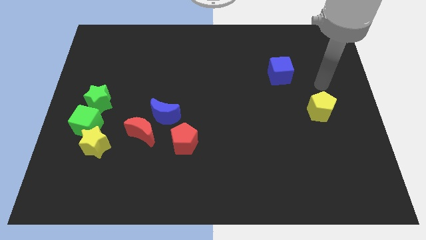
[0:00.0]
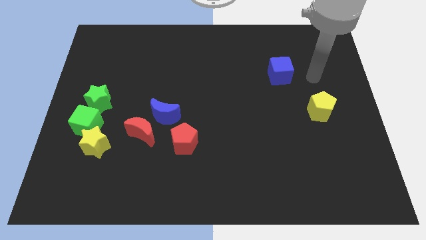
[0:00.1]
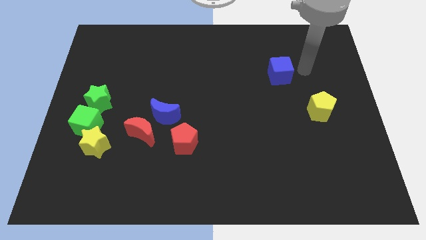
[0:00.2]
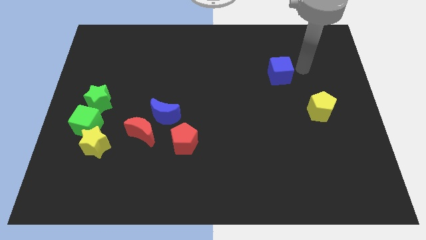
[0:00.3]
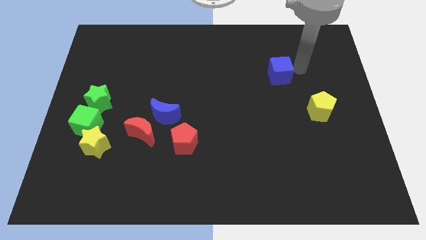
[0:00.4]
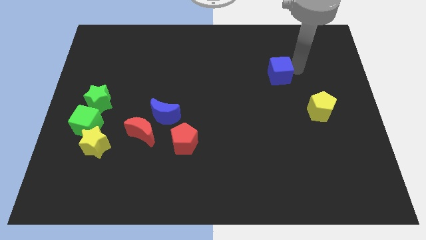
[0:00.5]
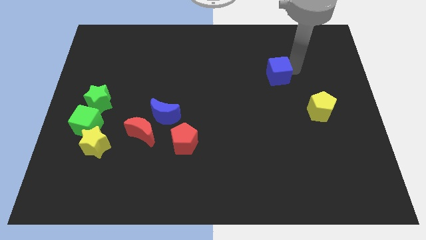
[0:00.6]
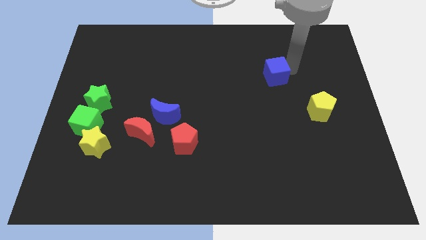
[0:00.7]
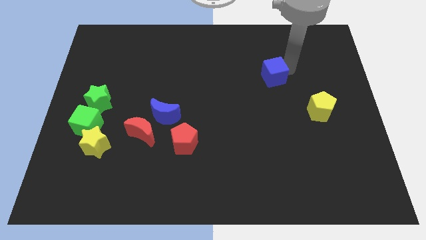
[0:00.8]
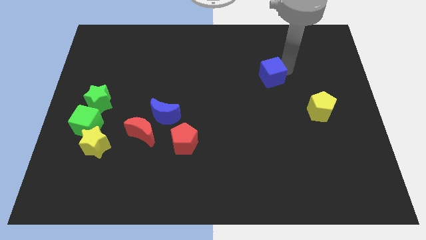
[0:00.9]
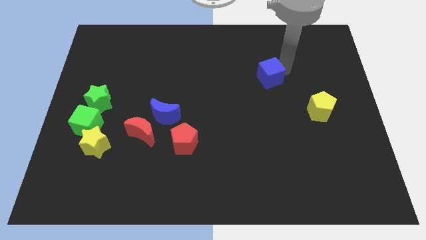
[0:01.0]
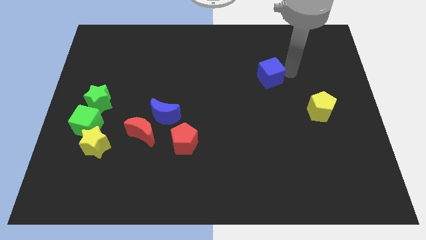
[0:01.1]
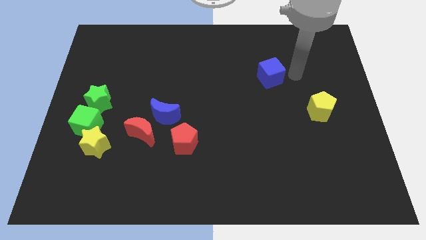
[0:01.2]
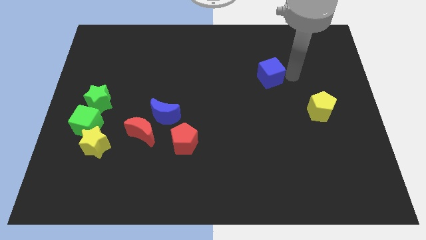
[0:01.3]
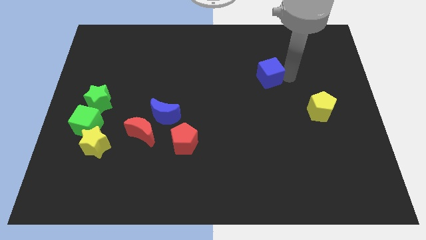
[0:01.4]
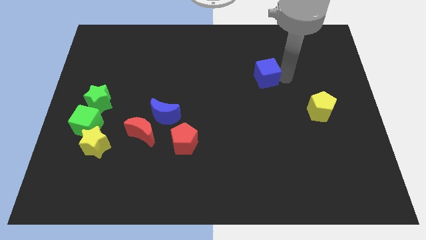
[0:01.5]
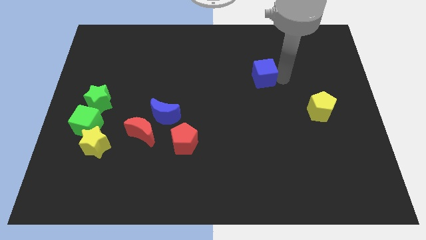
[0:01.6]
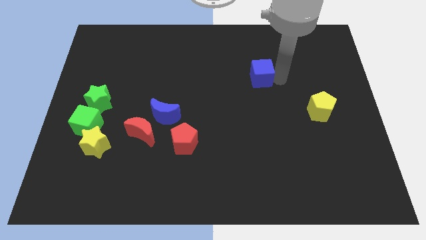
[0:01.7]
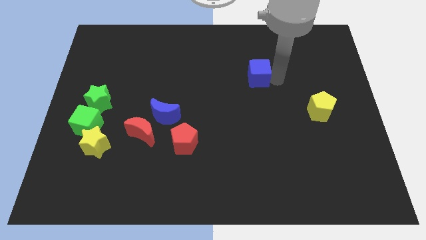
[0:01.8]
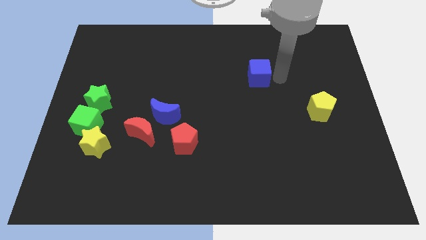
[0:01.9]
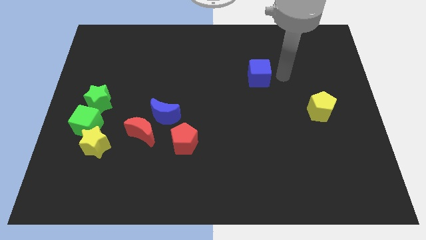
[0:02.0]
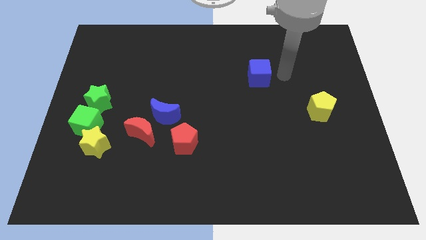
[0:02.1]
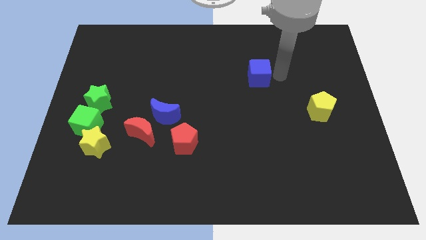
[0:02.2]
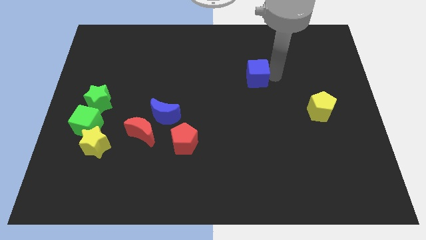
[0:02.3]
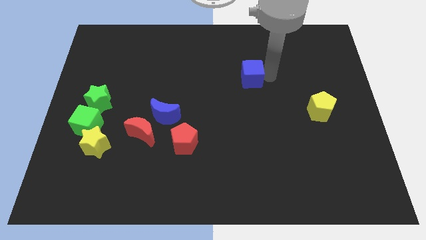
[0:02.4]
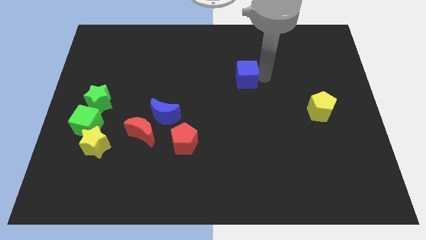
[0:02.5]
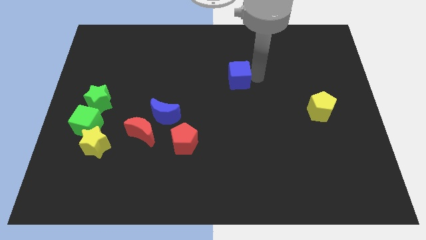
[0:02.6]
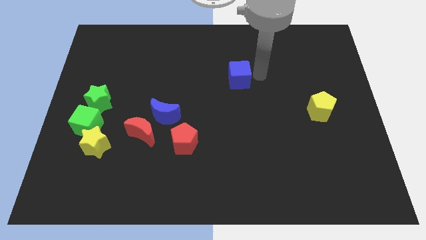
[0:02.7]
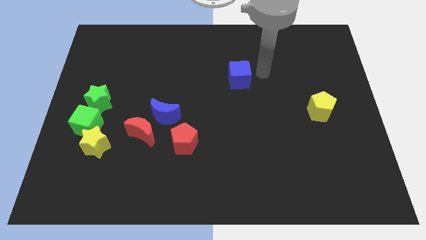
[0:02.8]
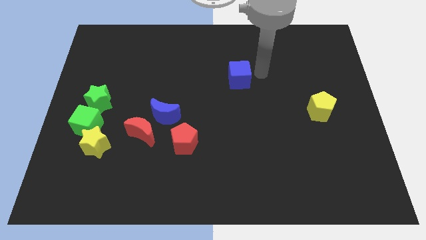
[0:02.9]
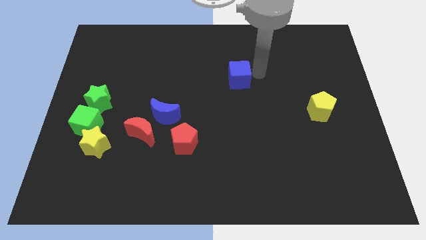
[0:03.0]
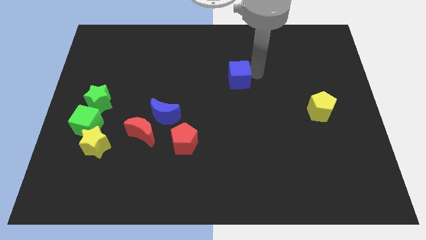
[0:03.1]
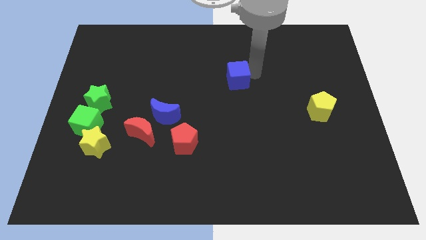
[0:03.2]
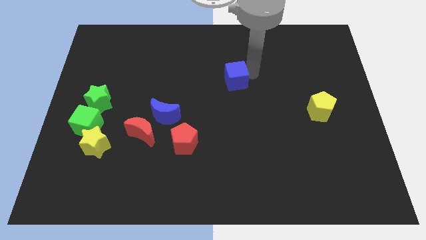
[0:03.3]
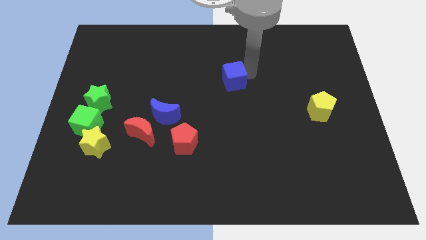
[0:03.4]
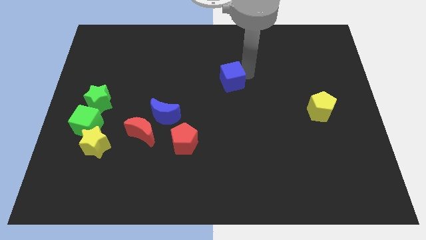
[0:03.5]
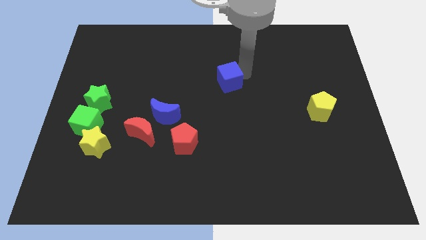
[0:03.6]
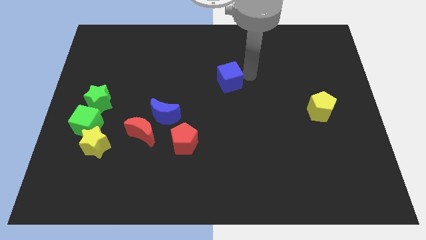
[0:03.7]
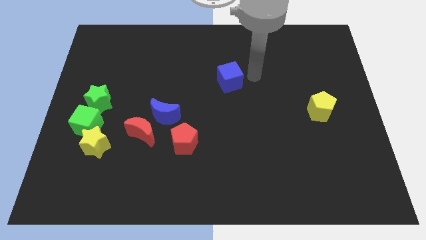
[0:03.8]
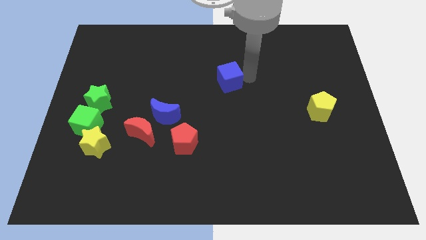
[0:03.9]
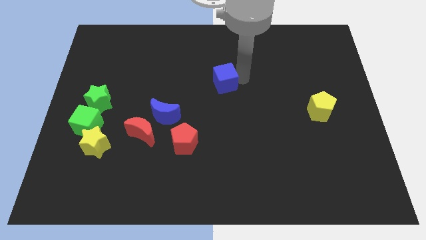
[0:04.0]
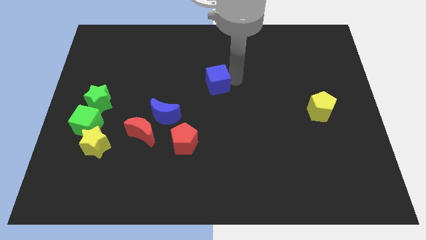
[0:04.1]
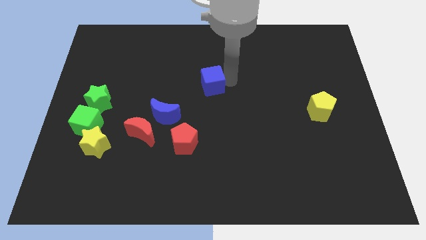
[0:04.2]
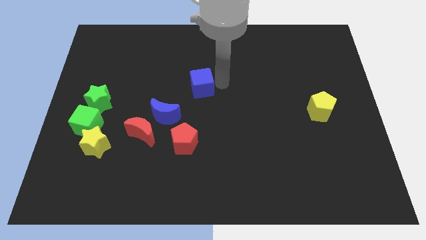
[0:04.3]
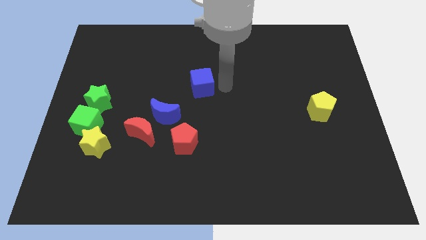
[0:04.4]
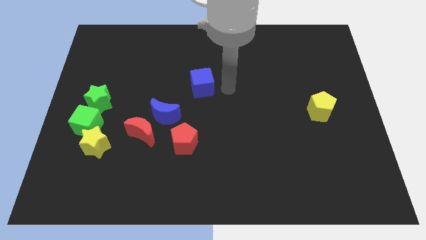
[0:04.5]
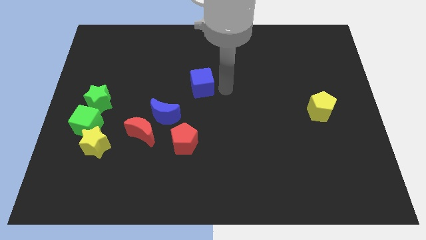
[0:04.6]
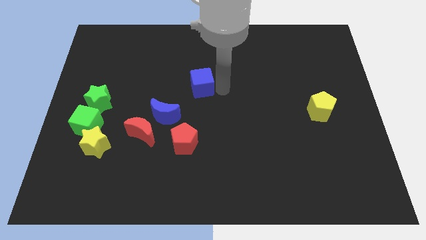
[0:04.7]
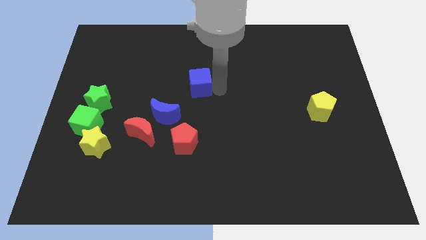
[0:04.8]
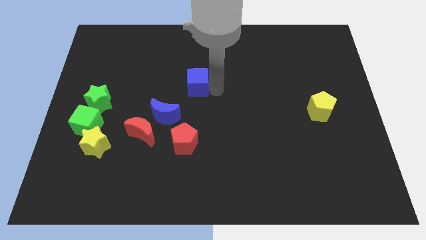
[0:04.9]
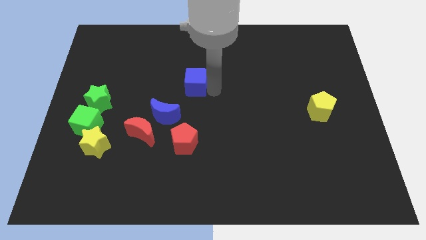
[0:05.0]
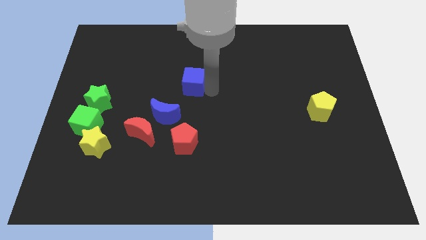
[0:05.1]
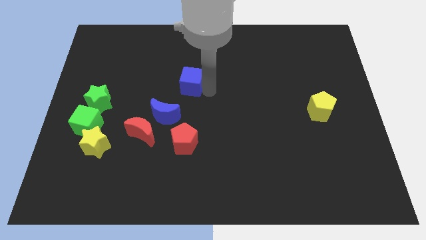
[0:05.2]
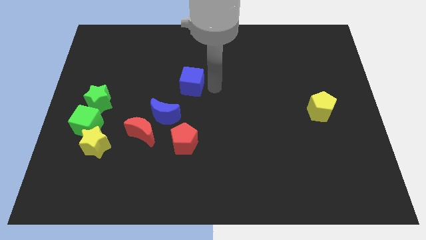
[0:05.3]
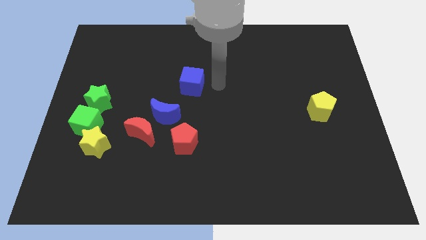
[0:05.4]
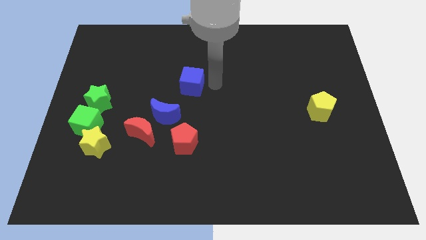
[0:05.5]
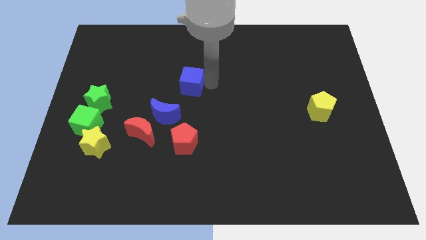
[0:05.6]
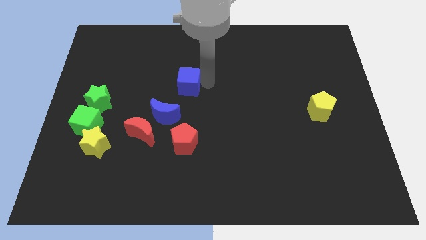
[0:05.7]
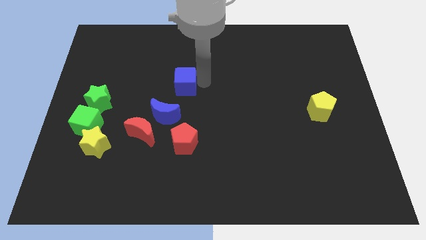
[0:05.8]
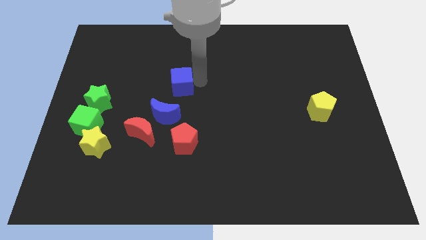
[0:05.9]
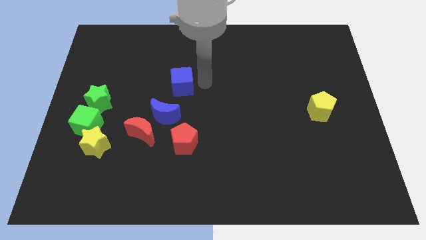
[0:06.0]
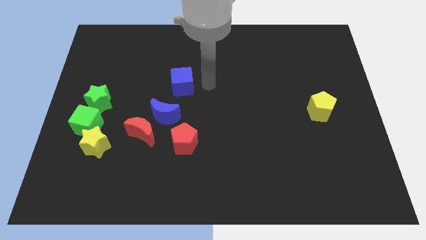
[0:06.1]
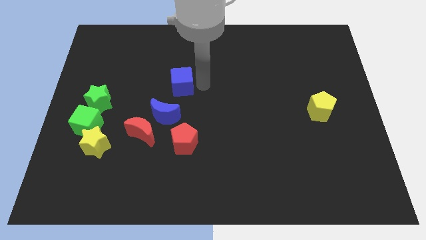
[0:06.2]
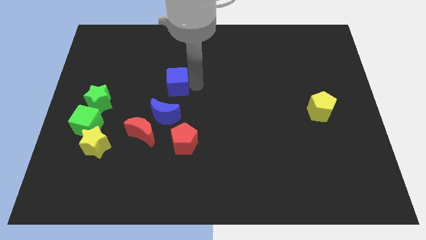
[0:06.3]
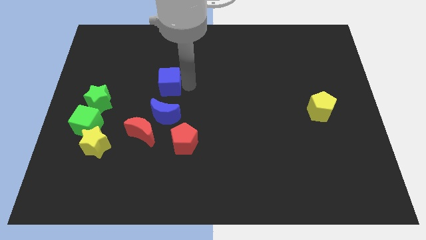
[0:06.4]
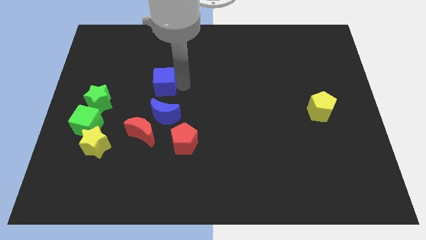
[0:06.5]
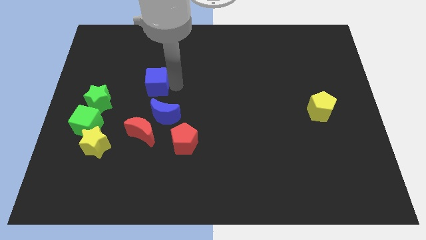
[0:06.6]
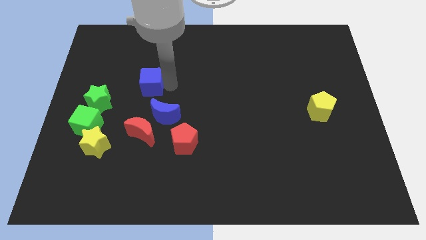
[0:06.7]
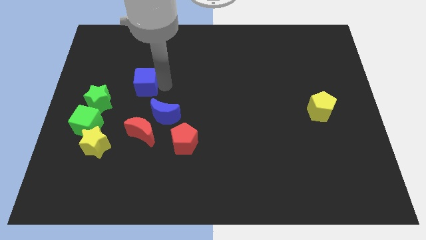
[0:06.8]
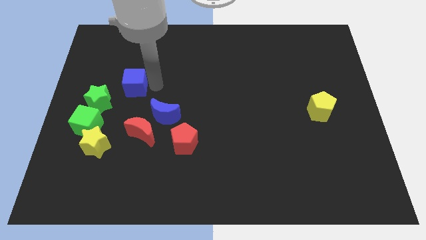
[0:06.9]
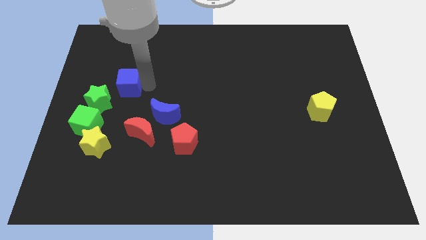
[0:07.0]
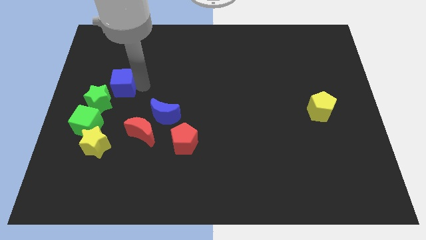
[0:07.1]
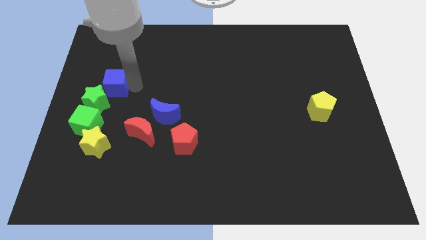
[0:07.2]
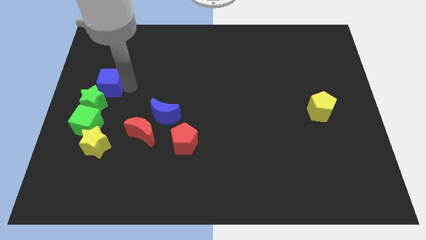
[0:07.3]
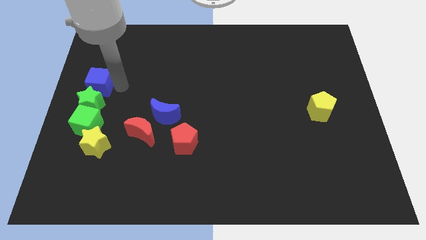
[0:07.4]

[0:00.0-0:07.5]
push the blue cube to the center left
